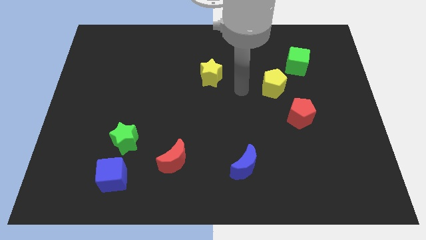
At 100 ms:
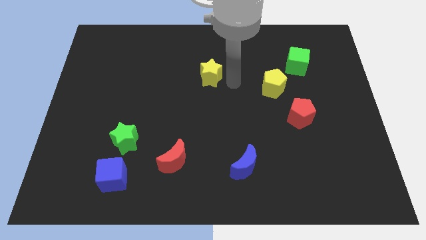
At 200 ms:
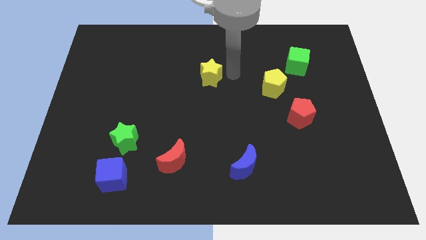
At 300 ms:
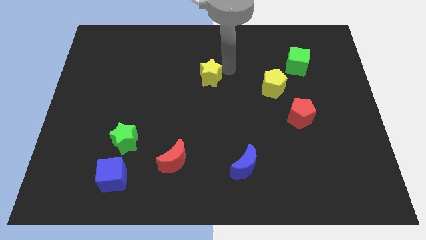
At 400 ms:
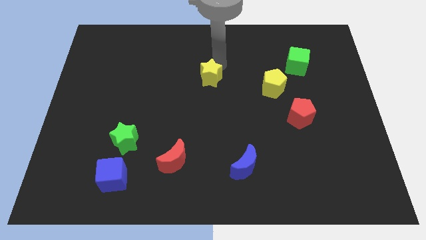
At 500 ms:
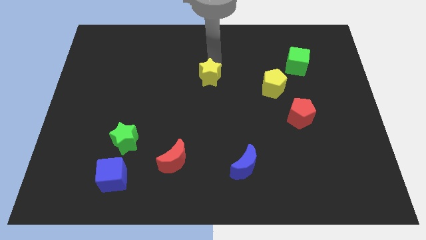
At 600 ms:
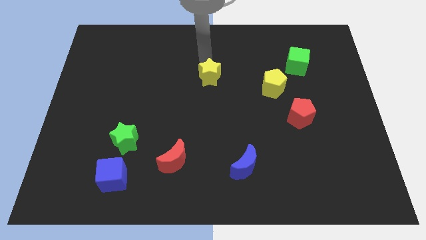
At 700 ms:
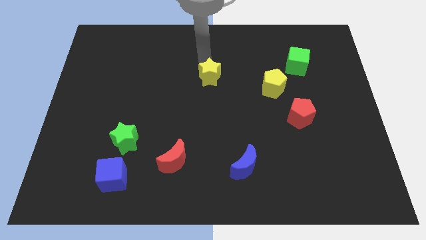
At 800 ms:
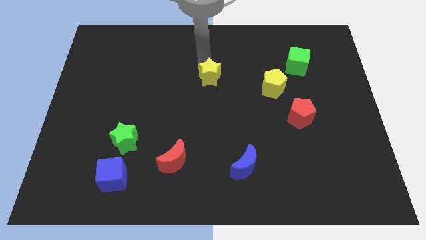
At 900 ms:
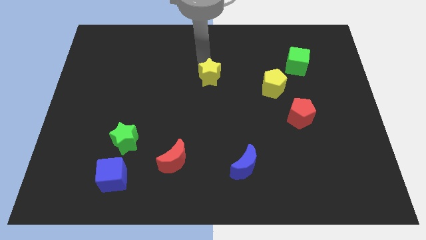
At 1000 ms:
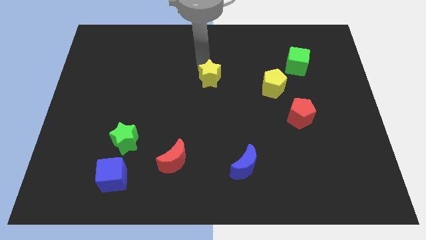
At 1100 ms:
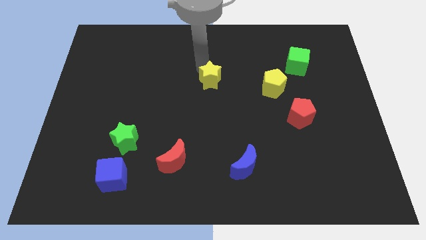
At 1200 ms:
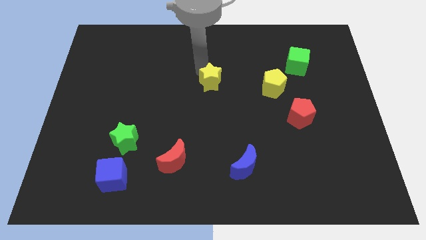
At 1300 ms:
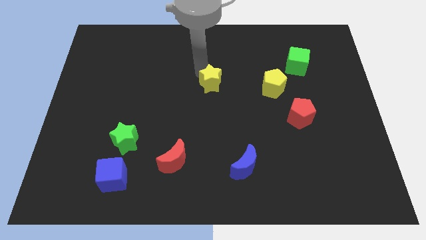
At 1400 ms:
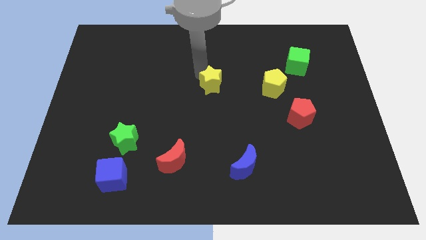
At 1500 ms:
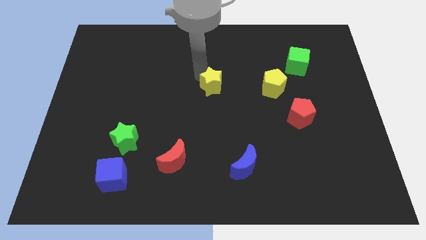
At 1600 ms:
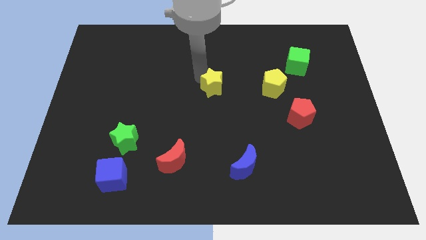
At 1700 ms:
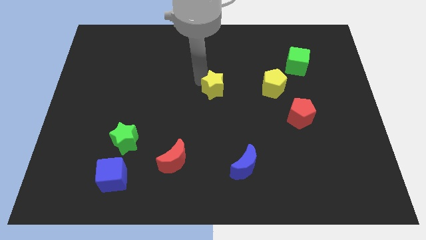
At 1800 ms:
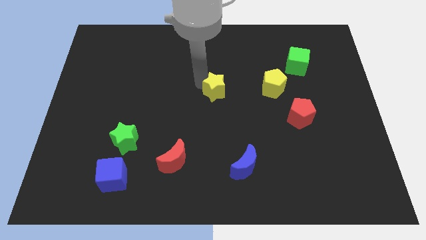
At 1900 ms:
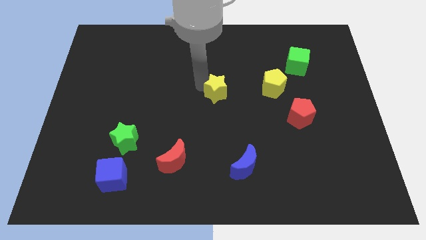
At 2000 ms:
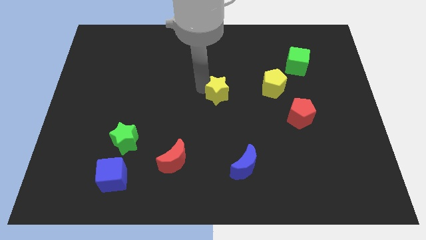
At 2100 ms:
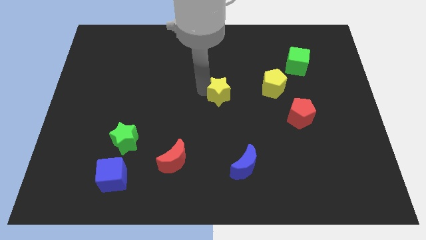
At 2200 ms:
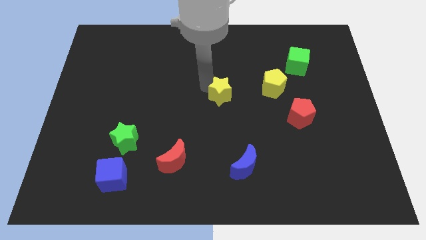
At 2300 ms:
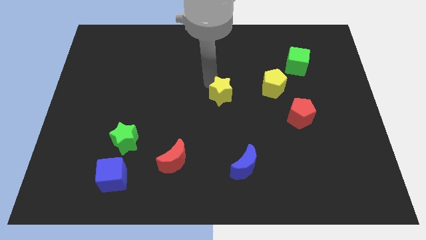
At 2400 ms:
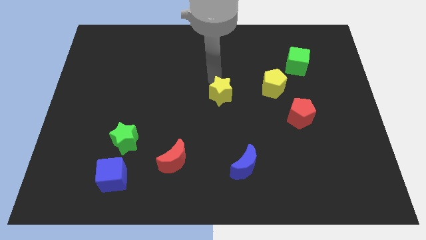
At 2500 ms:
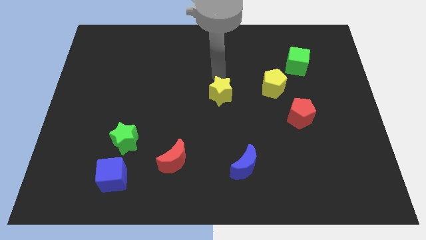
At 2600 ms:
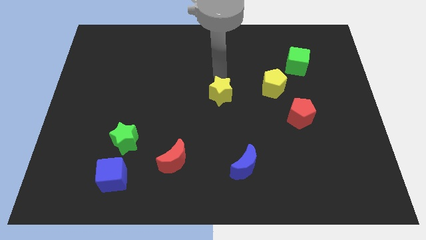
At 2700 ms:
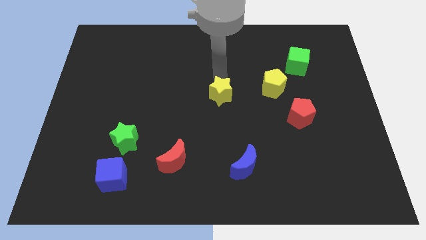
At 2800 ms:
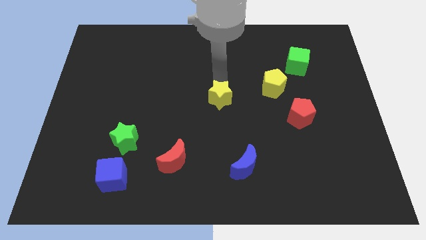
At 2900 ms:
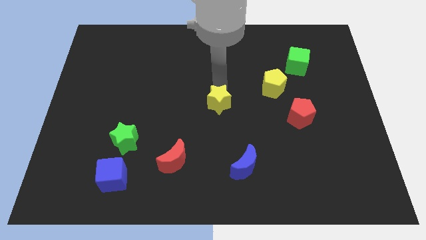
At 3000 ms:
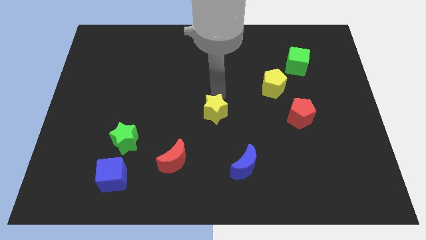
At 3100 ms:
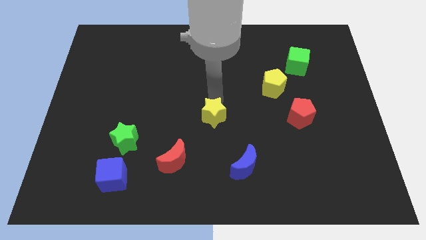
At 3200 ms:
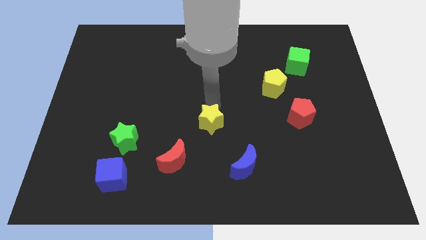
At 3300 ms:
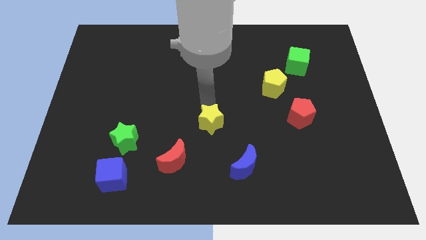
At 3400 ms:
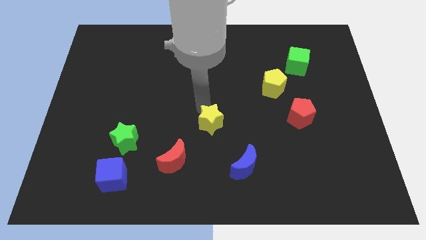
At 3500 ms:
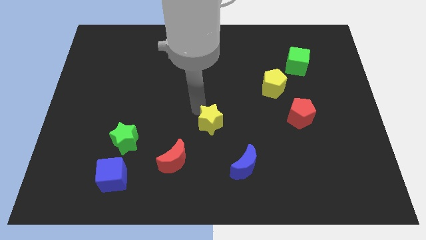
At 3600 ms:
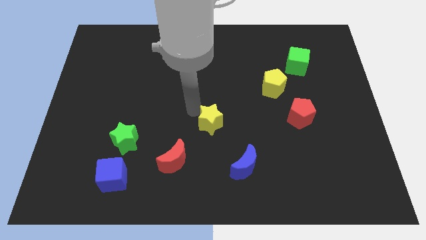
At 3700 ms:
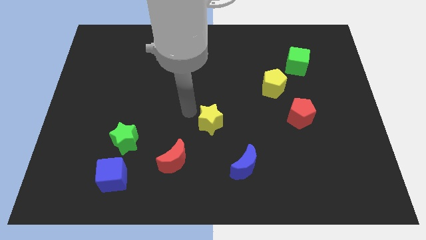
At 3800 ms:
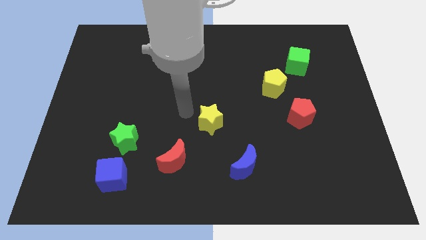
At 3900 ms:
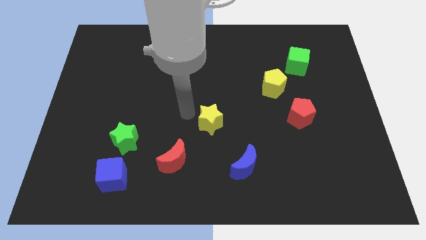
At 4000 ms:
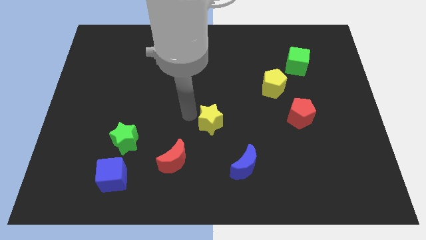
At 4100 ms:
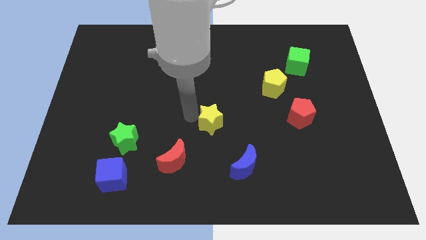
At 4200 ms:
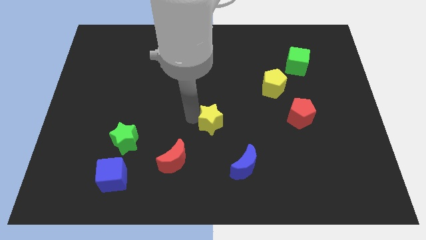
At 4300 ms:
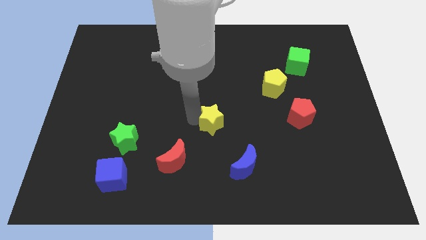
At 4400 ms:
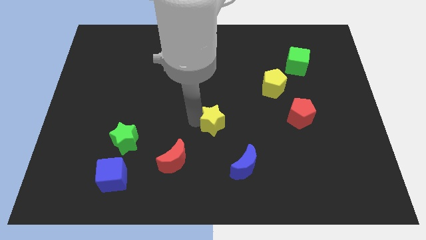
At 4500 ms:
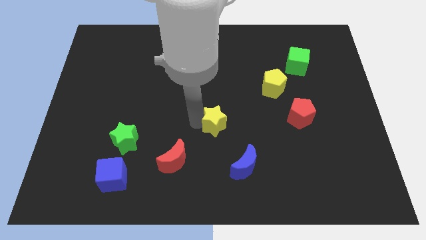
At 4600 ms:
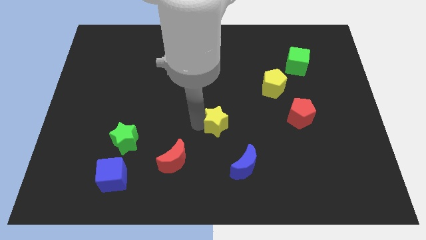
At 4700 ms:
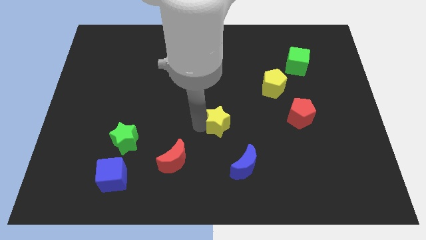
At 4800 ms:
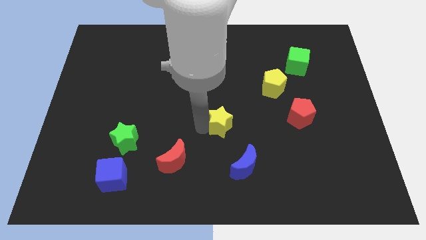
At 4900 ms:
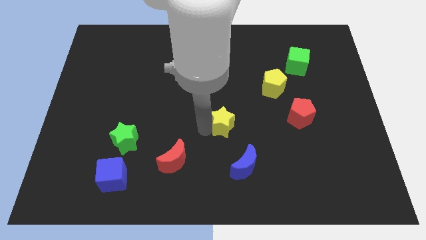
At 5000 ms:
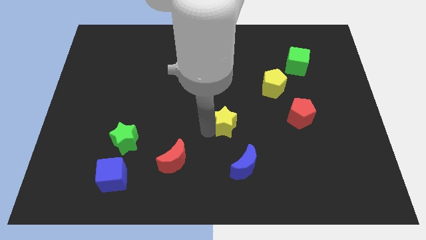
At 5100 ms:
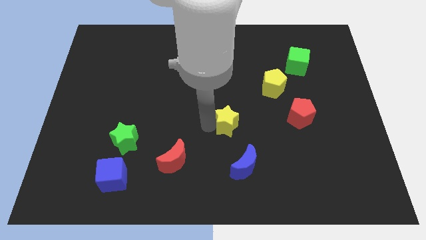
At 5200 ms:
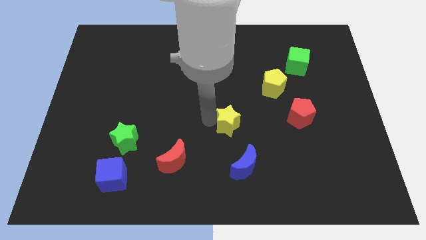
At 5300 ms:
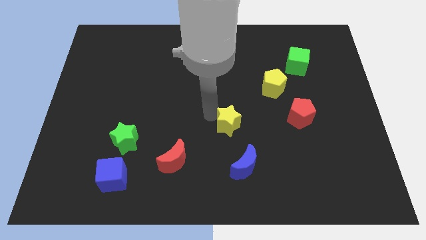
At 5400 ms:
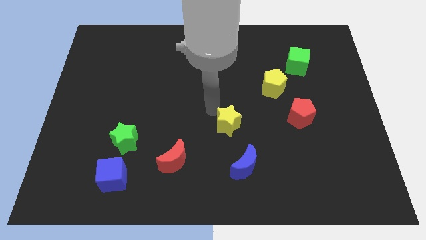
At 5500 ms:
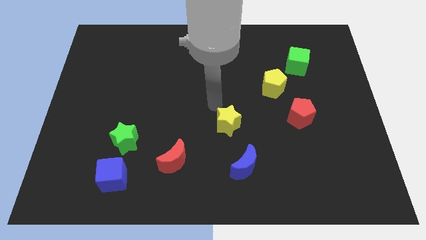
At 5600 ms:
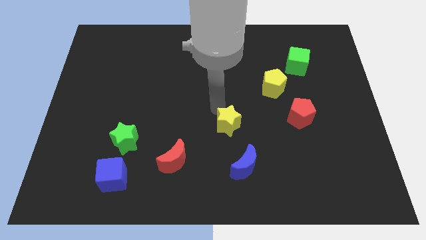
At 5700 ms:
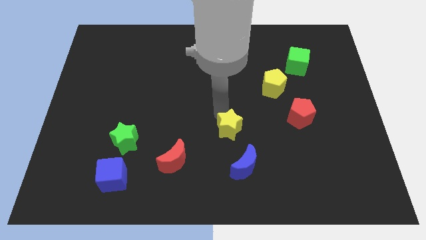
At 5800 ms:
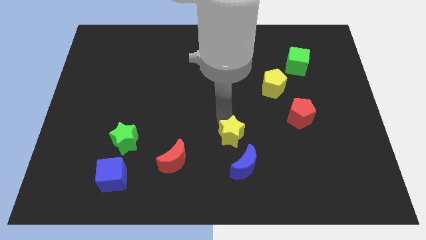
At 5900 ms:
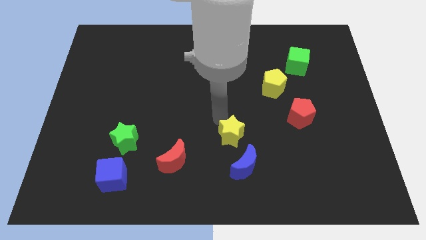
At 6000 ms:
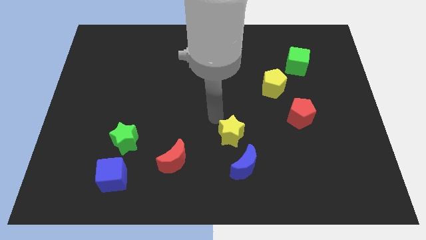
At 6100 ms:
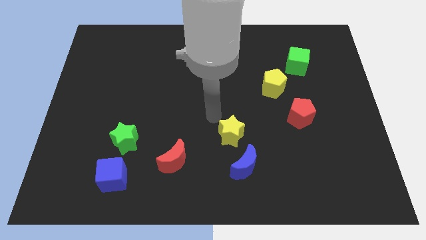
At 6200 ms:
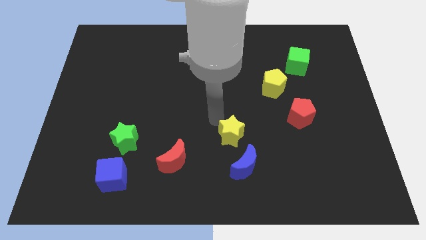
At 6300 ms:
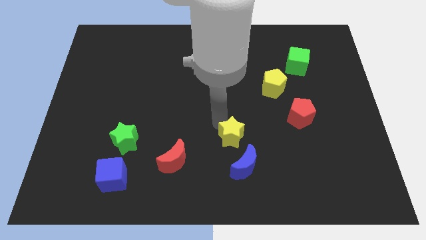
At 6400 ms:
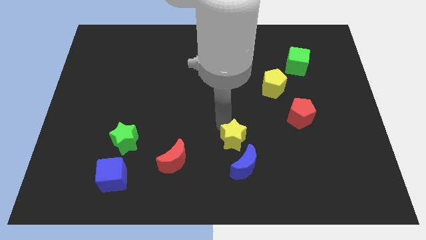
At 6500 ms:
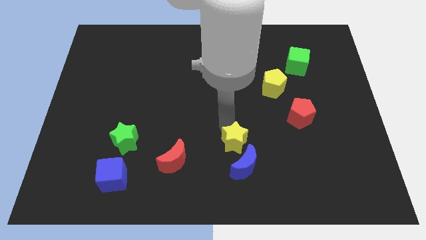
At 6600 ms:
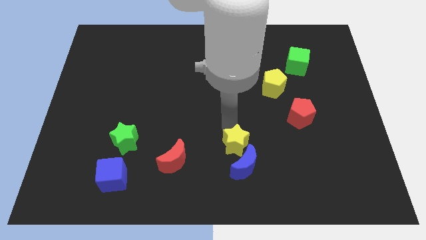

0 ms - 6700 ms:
move the yellow star next to the blue moon
